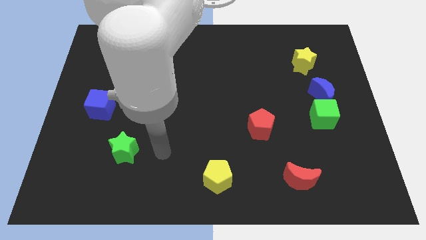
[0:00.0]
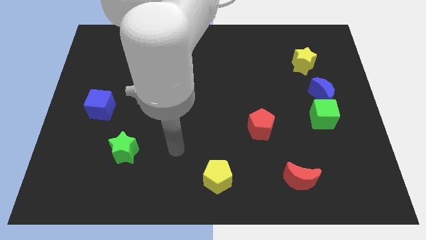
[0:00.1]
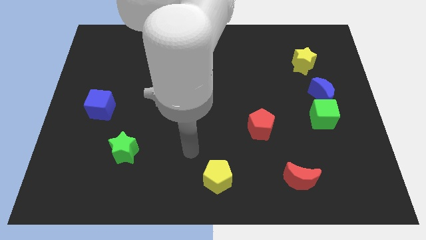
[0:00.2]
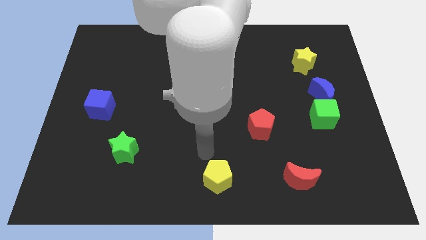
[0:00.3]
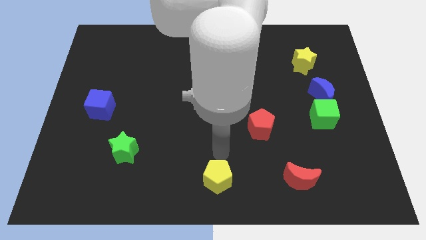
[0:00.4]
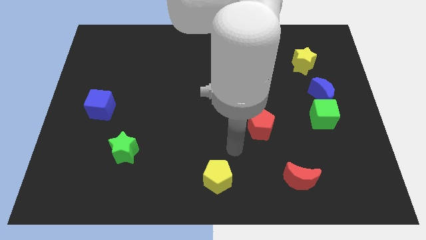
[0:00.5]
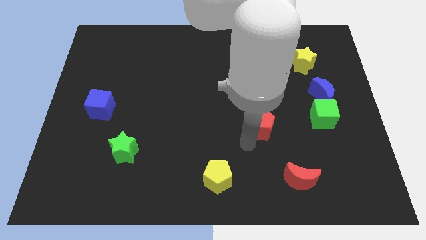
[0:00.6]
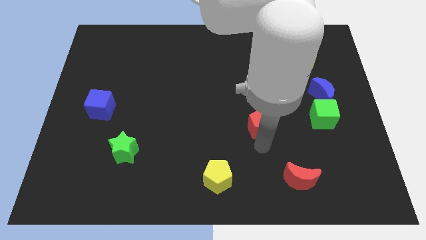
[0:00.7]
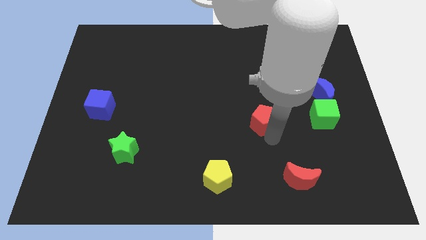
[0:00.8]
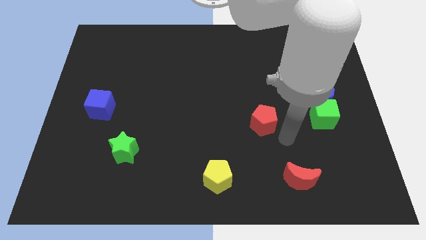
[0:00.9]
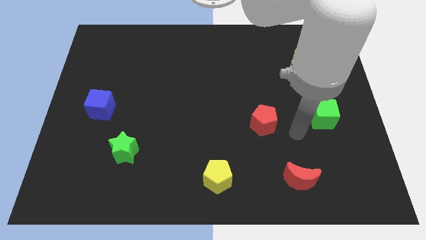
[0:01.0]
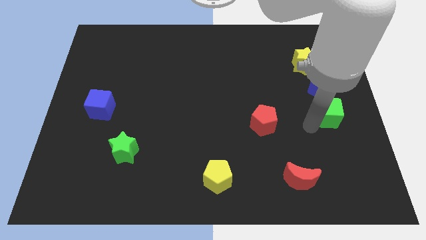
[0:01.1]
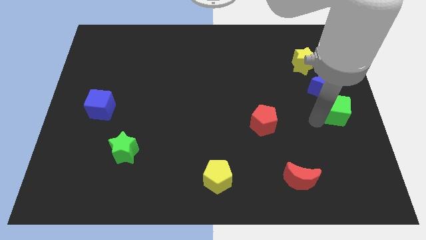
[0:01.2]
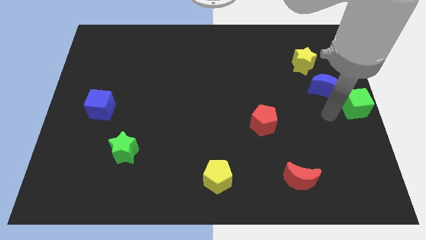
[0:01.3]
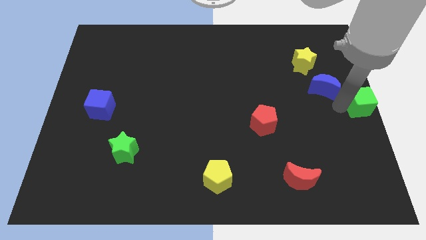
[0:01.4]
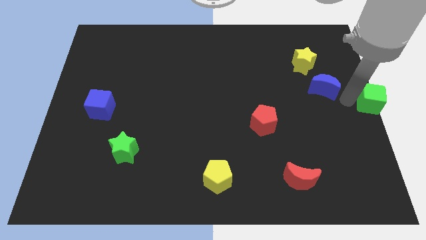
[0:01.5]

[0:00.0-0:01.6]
pull the blue moon apart from the green cube

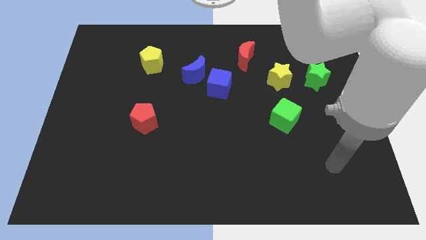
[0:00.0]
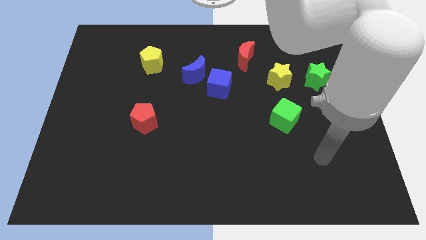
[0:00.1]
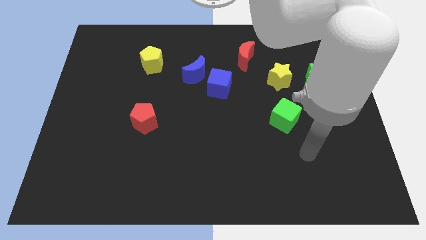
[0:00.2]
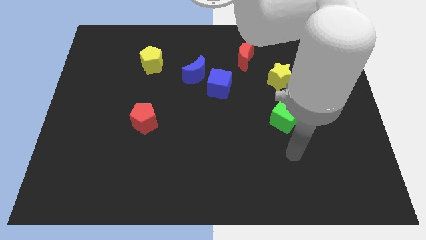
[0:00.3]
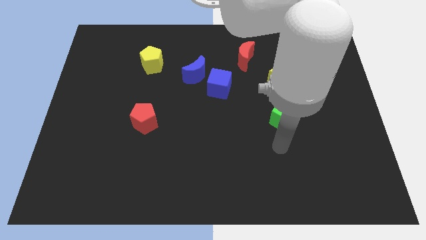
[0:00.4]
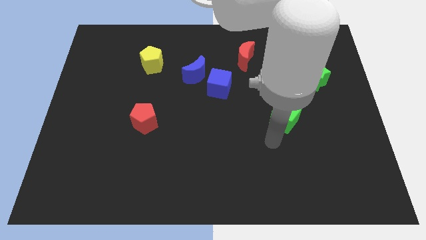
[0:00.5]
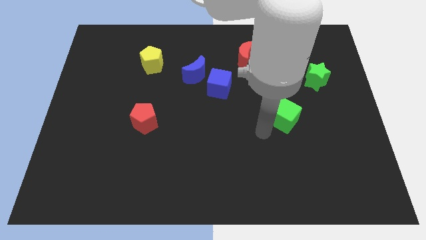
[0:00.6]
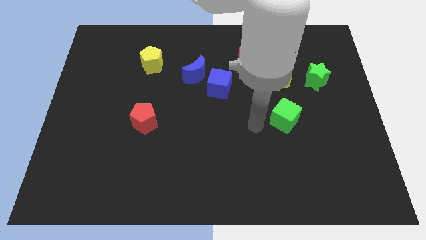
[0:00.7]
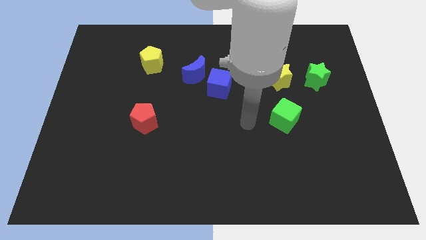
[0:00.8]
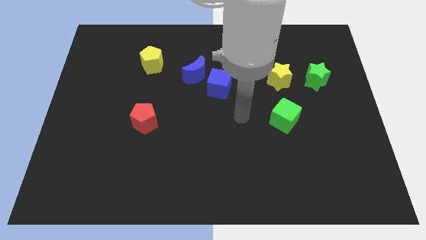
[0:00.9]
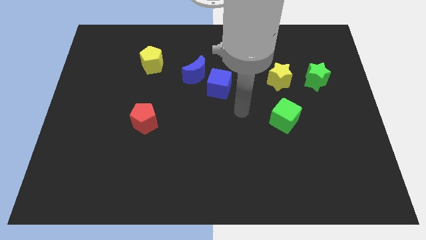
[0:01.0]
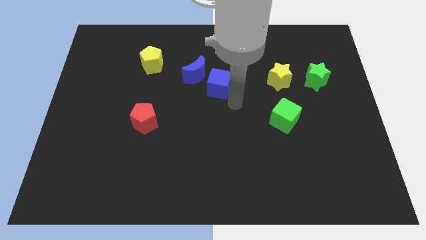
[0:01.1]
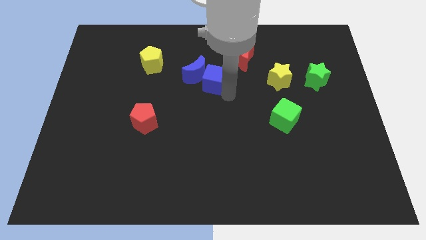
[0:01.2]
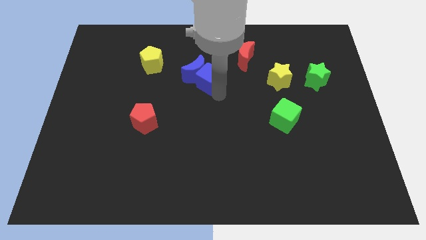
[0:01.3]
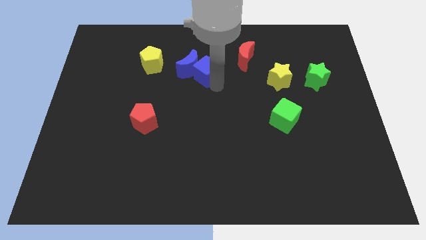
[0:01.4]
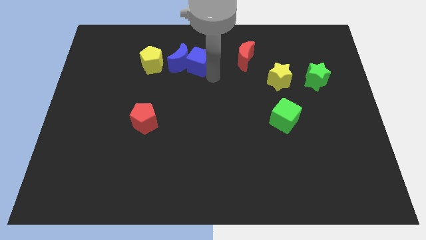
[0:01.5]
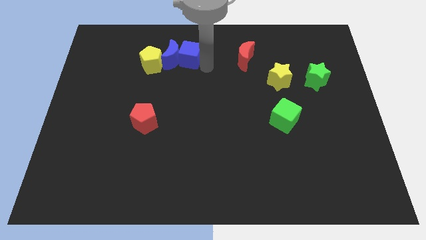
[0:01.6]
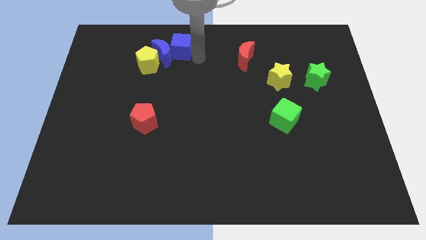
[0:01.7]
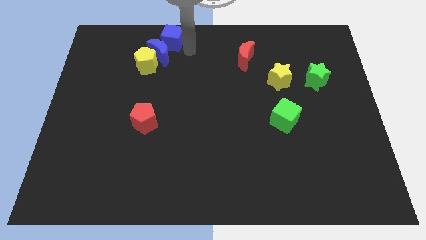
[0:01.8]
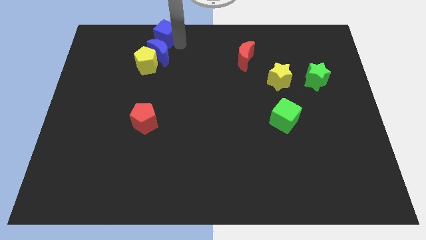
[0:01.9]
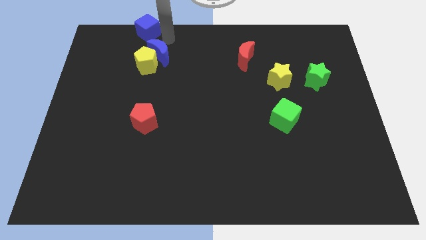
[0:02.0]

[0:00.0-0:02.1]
pull the blue moon apart from the blue cube

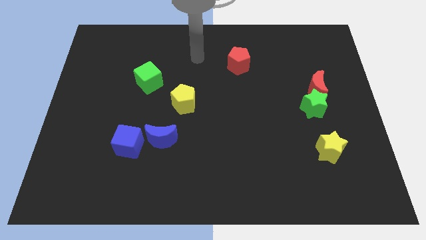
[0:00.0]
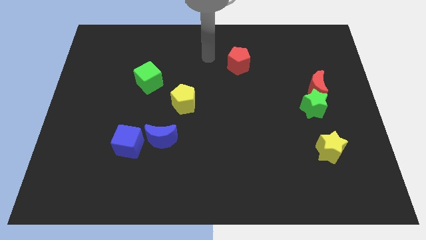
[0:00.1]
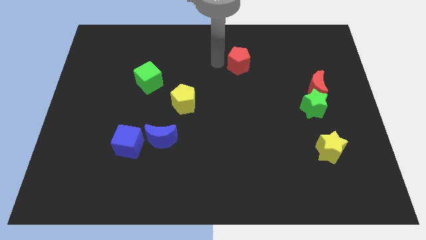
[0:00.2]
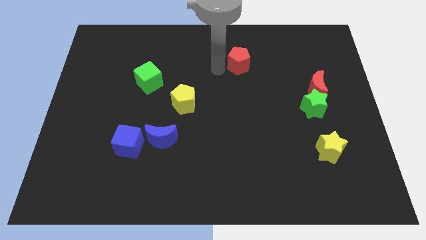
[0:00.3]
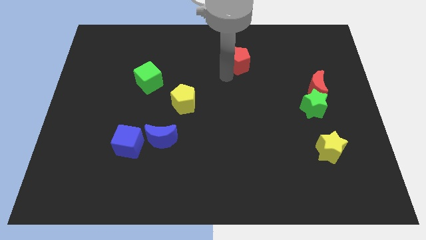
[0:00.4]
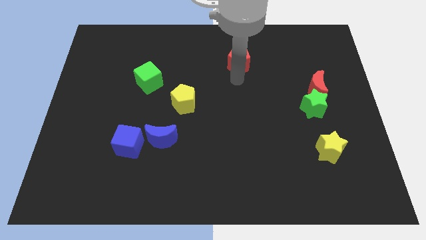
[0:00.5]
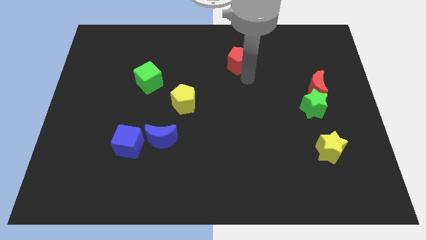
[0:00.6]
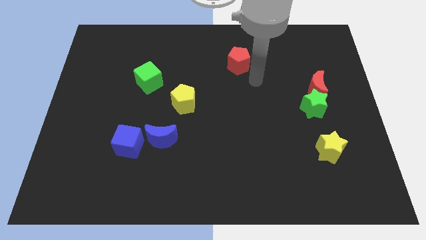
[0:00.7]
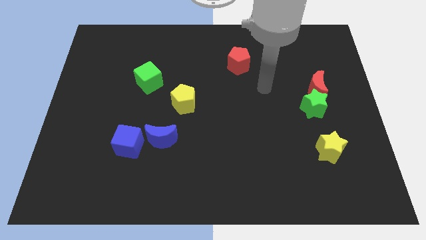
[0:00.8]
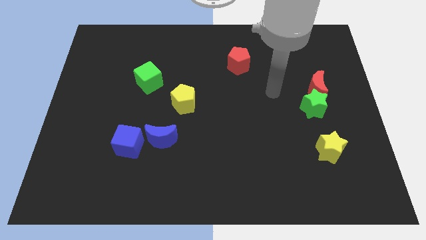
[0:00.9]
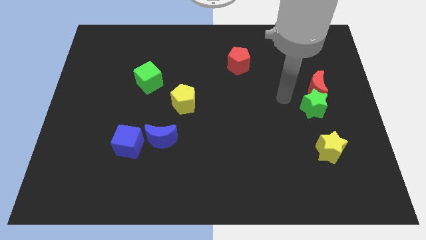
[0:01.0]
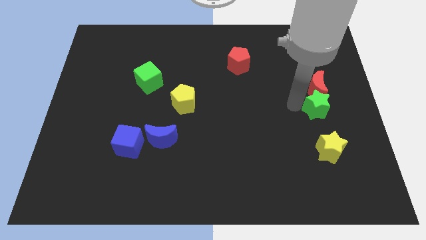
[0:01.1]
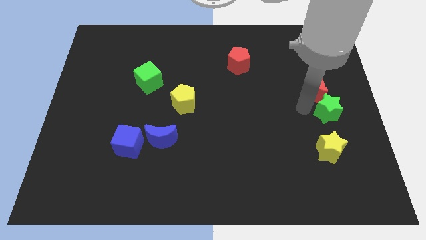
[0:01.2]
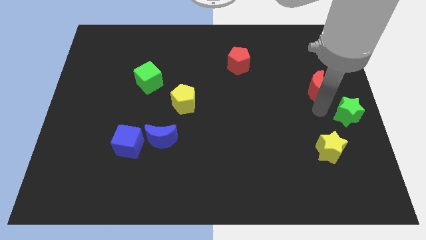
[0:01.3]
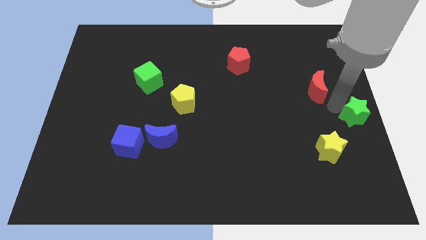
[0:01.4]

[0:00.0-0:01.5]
move the red moon away from the green star

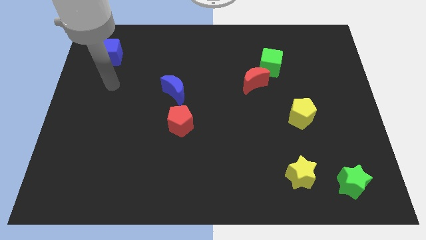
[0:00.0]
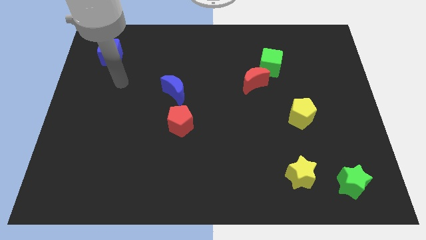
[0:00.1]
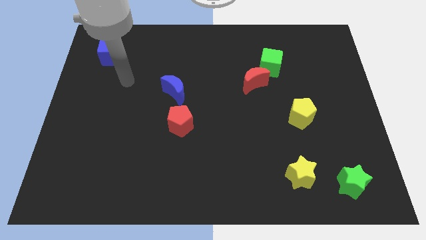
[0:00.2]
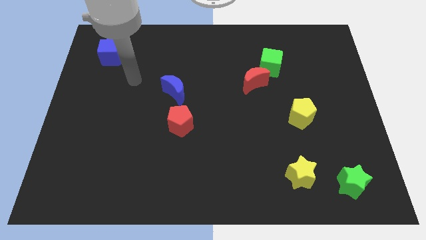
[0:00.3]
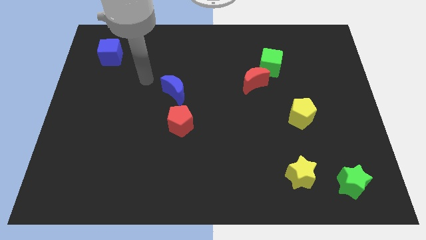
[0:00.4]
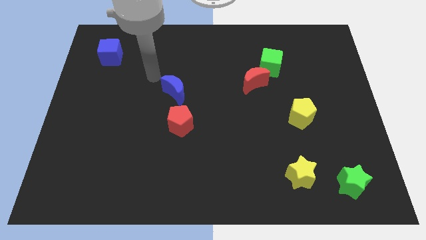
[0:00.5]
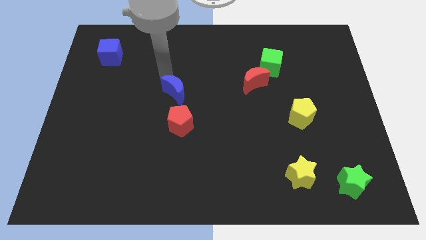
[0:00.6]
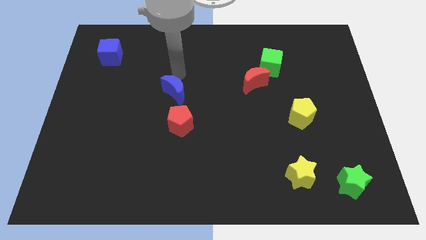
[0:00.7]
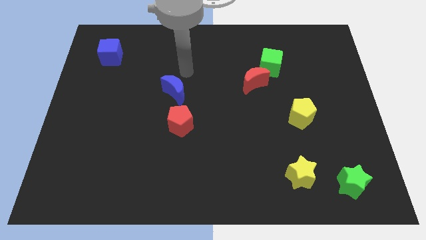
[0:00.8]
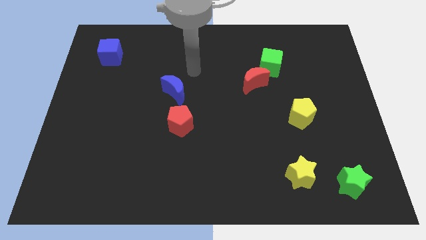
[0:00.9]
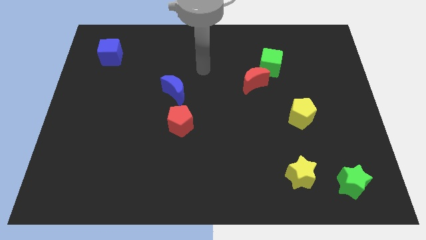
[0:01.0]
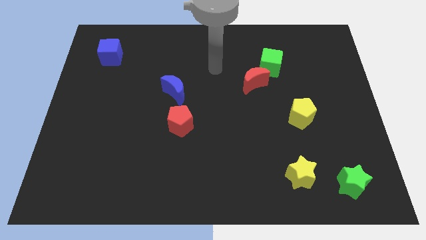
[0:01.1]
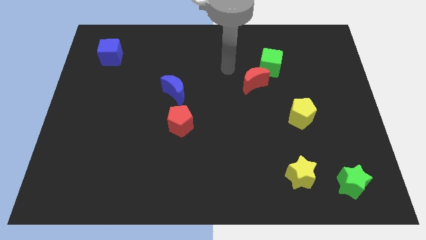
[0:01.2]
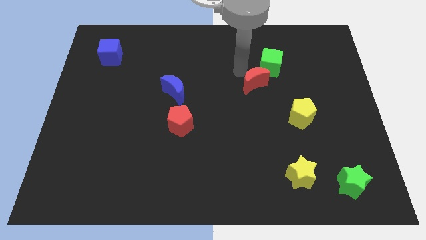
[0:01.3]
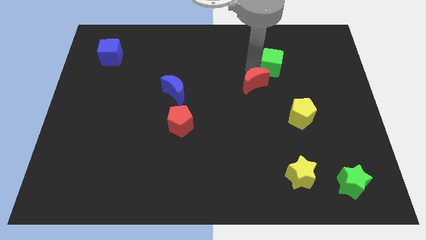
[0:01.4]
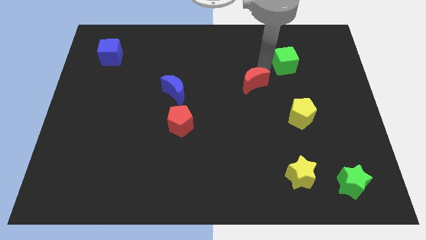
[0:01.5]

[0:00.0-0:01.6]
separate the red moon from the green cube

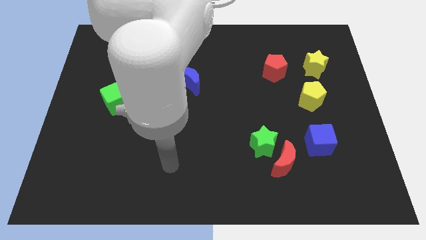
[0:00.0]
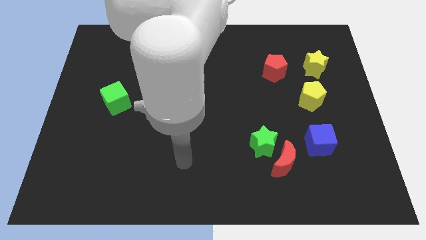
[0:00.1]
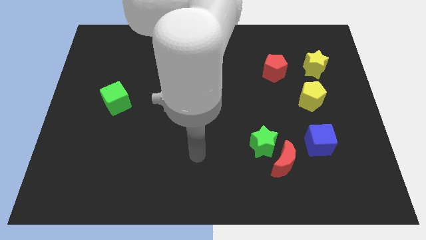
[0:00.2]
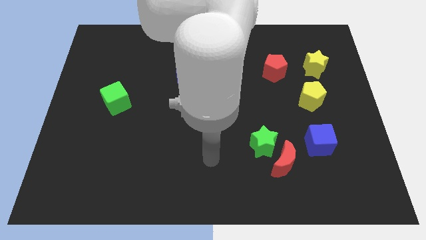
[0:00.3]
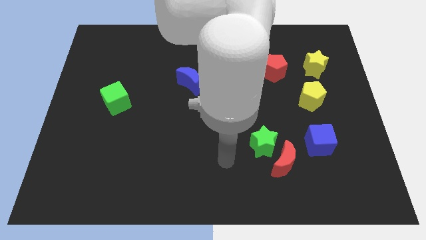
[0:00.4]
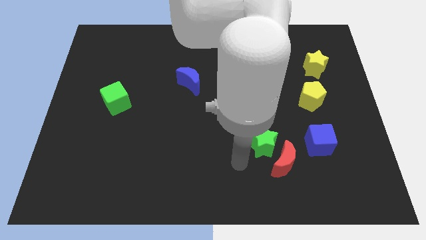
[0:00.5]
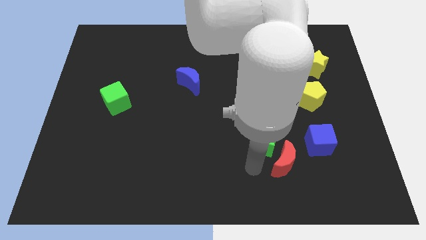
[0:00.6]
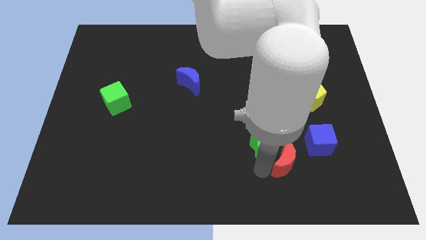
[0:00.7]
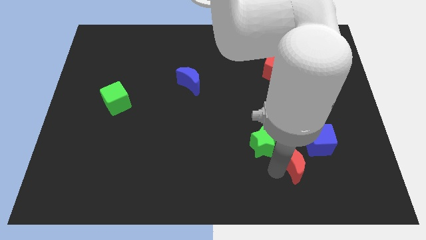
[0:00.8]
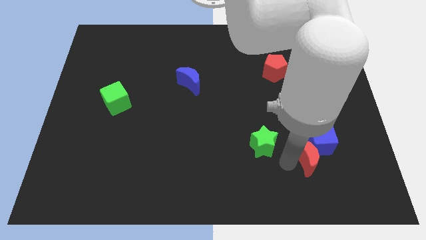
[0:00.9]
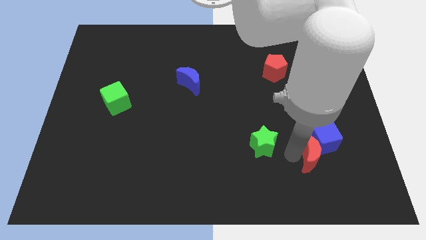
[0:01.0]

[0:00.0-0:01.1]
separate the green star from the red moon

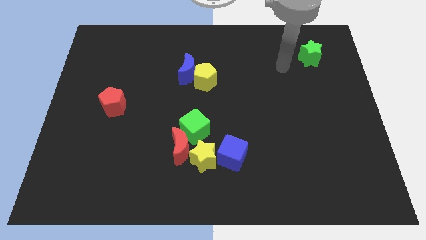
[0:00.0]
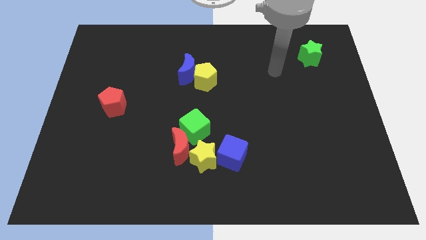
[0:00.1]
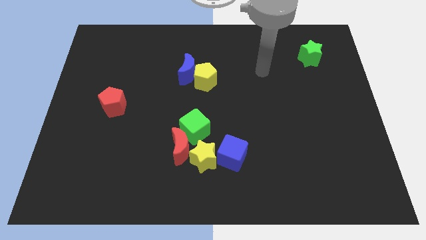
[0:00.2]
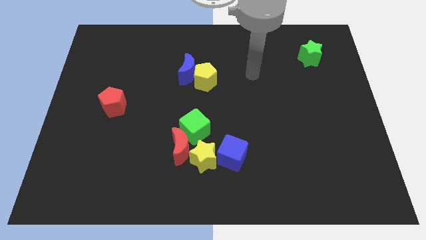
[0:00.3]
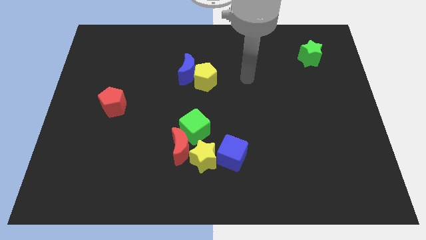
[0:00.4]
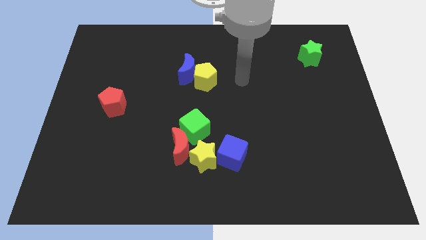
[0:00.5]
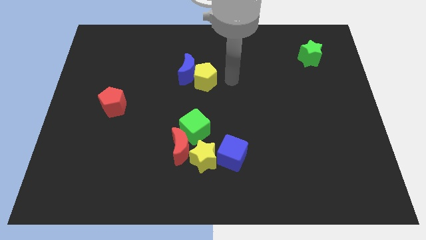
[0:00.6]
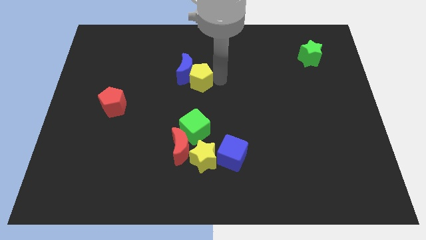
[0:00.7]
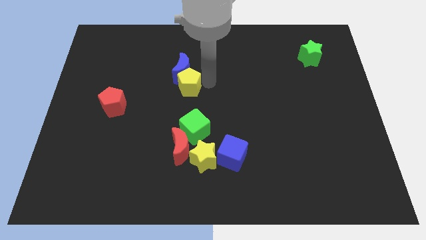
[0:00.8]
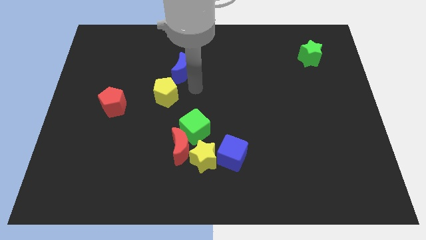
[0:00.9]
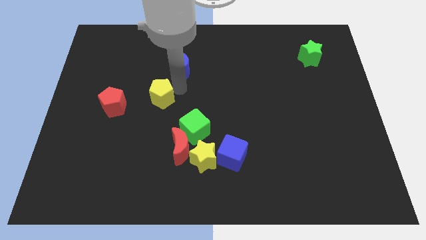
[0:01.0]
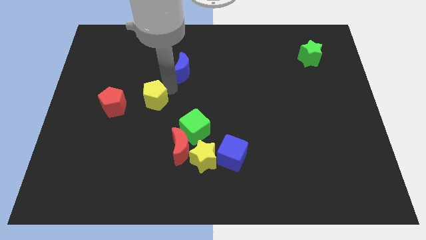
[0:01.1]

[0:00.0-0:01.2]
separate the blue moon from the yellow pentagon

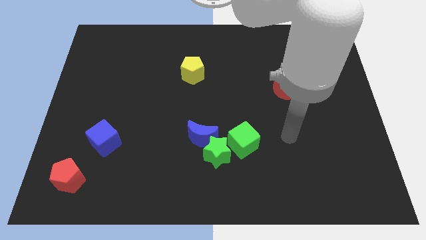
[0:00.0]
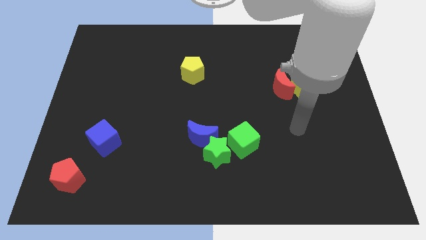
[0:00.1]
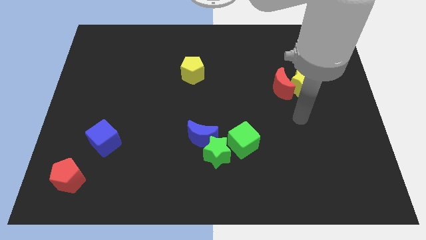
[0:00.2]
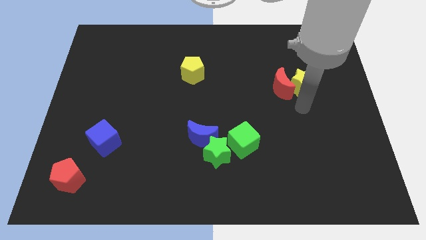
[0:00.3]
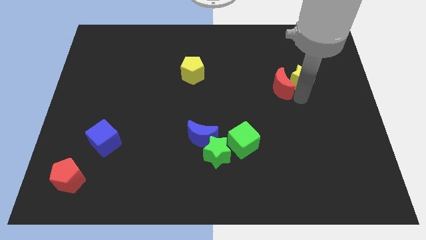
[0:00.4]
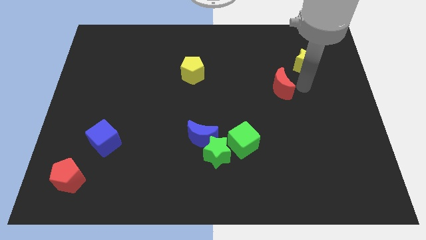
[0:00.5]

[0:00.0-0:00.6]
separate the red moon from the yellow star
